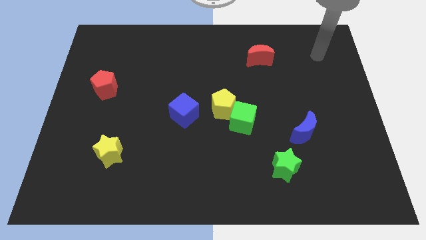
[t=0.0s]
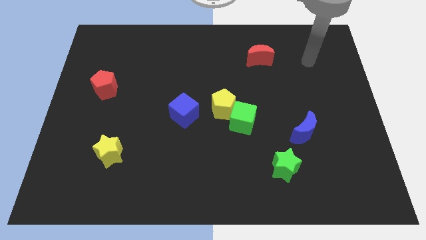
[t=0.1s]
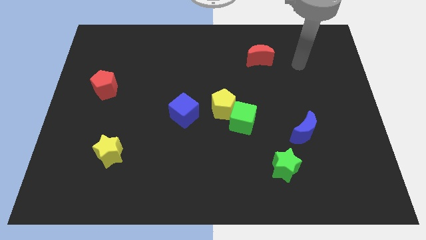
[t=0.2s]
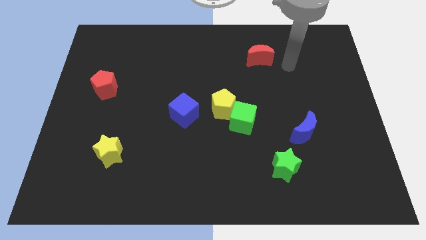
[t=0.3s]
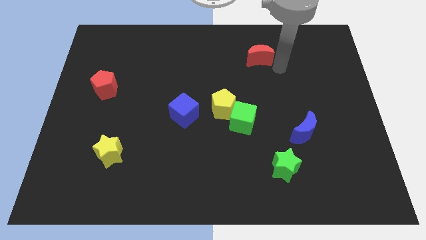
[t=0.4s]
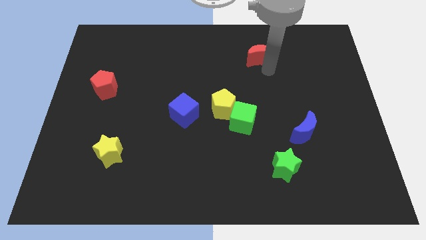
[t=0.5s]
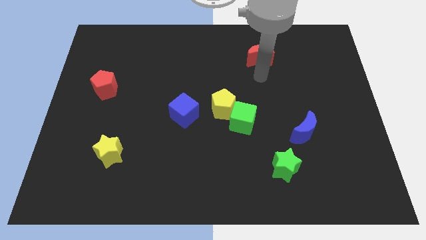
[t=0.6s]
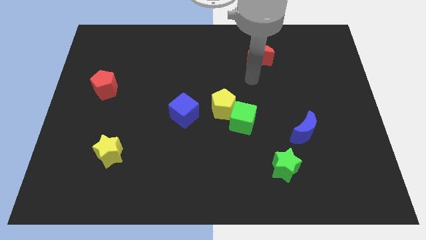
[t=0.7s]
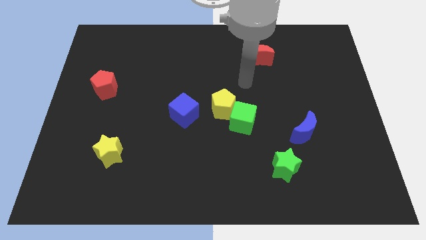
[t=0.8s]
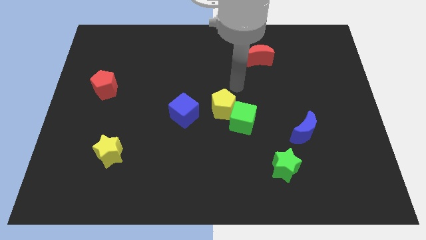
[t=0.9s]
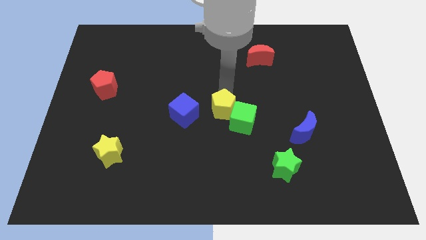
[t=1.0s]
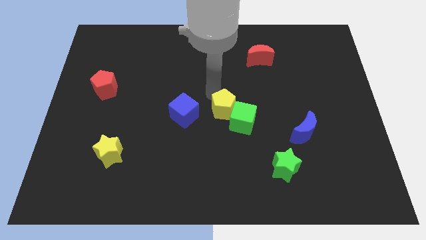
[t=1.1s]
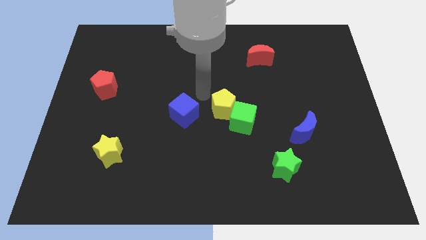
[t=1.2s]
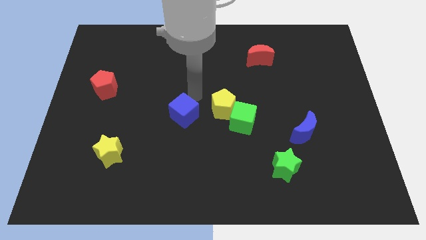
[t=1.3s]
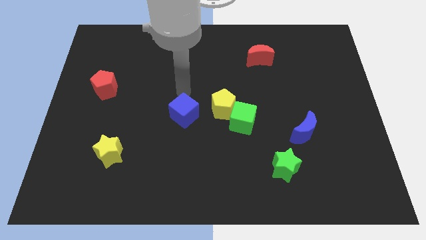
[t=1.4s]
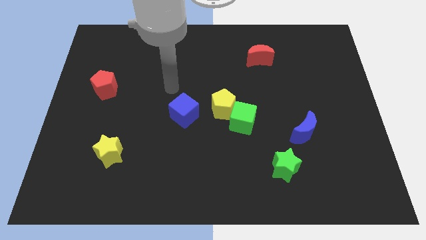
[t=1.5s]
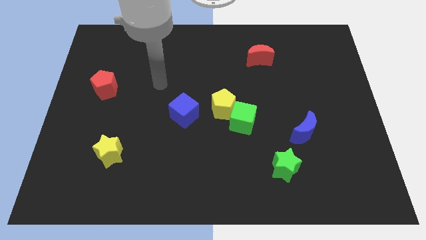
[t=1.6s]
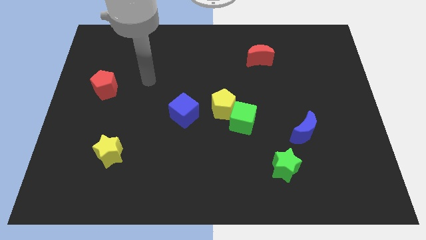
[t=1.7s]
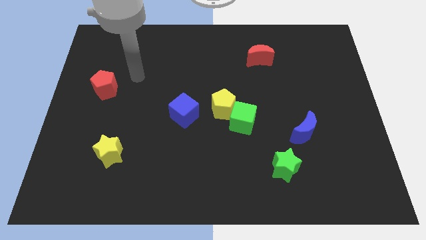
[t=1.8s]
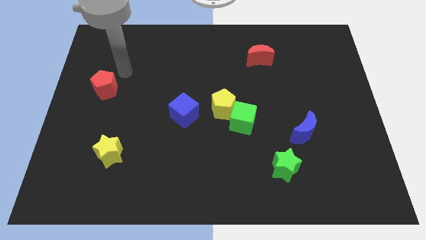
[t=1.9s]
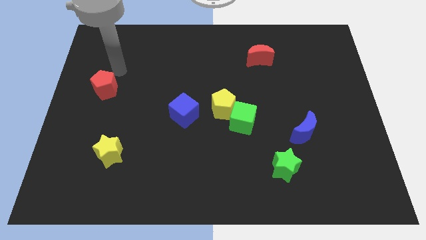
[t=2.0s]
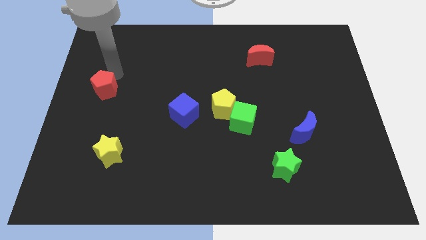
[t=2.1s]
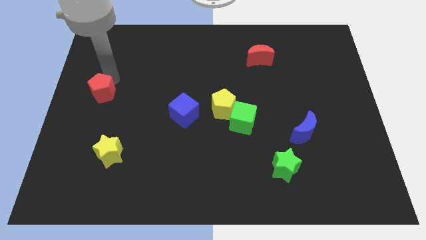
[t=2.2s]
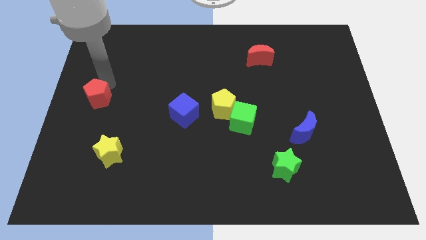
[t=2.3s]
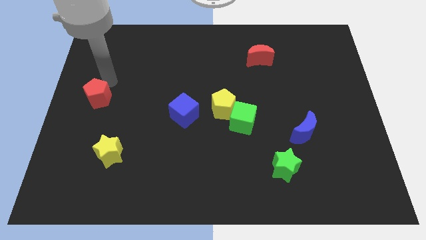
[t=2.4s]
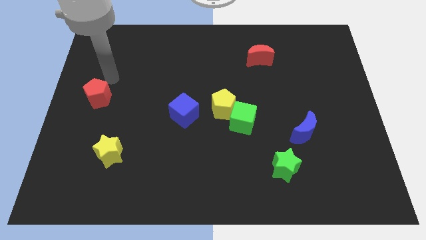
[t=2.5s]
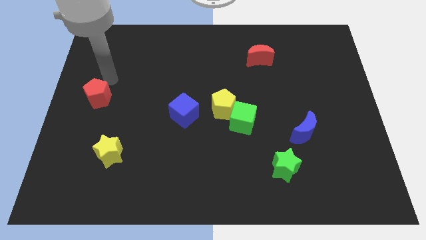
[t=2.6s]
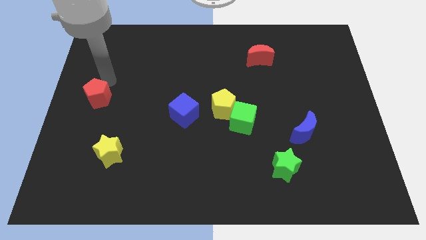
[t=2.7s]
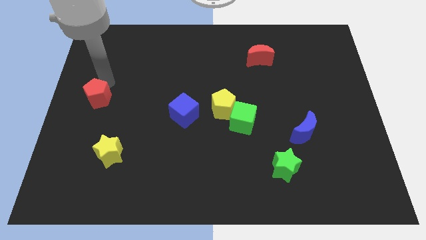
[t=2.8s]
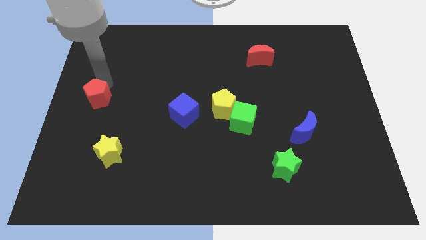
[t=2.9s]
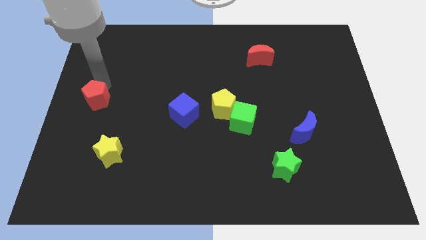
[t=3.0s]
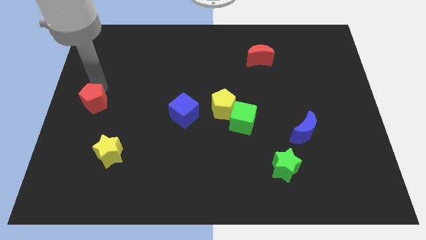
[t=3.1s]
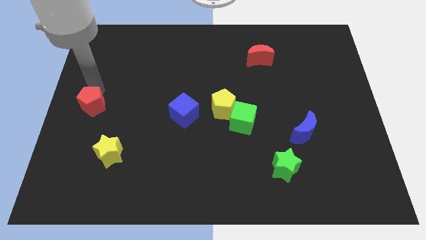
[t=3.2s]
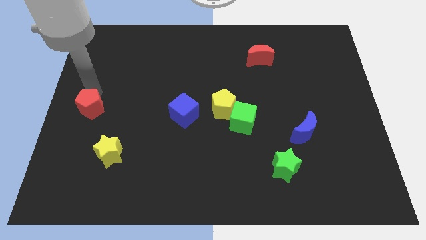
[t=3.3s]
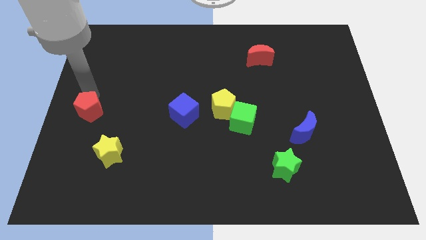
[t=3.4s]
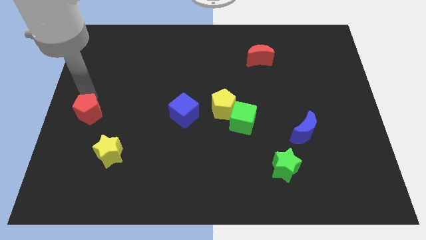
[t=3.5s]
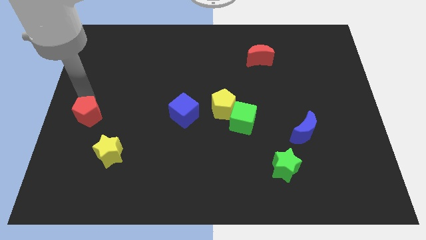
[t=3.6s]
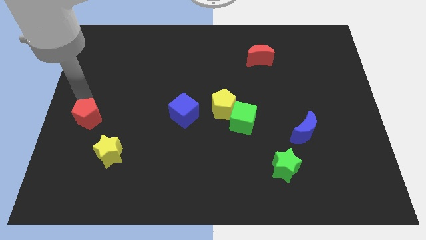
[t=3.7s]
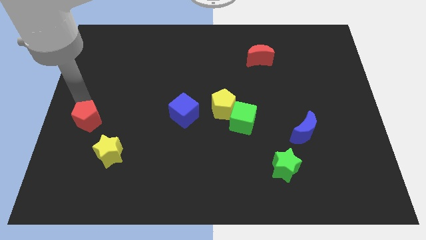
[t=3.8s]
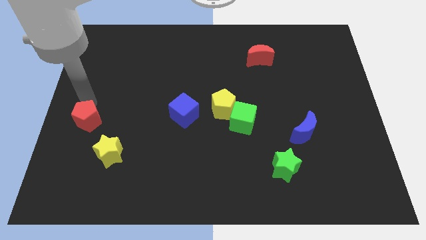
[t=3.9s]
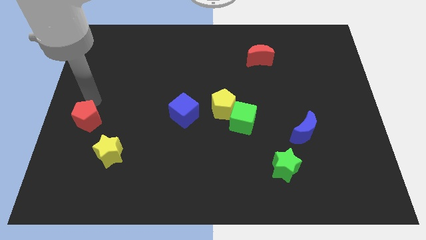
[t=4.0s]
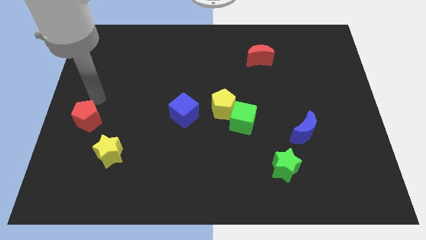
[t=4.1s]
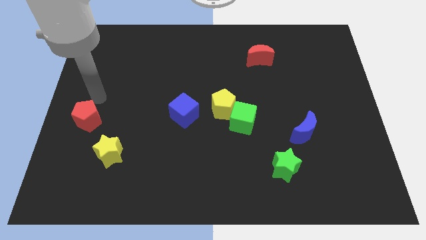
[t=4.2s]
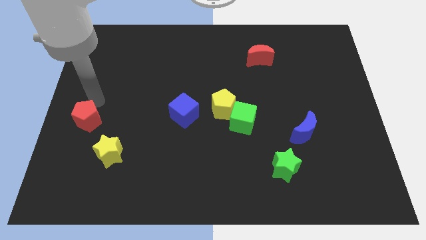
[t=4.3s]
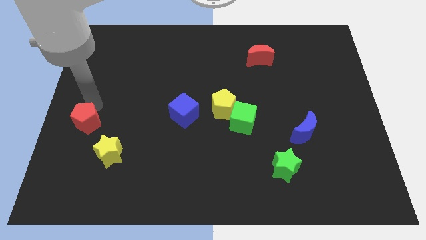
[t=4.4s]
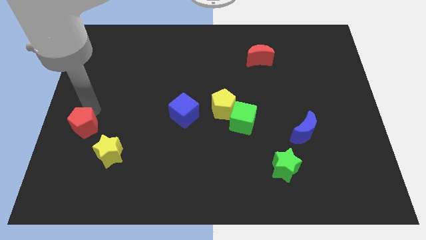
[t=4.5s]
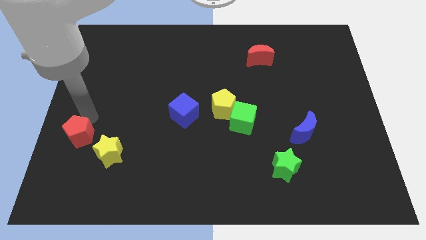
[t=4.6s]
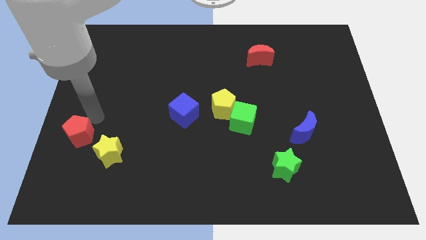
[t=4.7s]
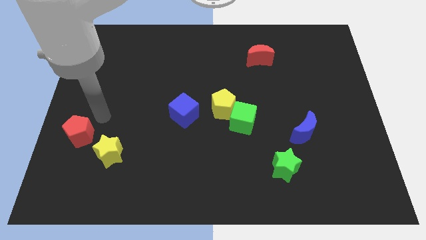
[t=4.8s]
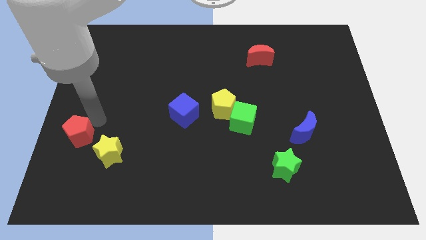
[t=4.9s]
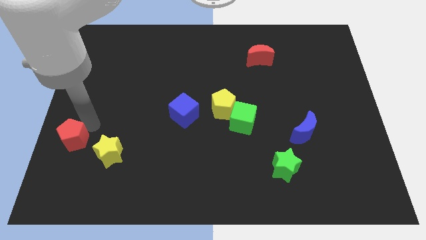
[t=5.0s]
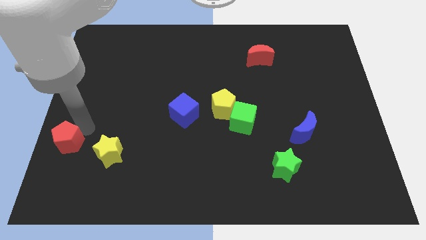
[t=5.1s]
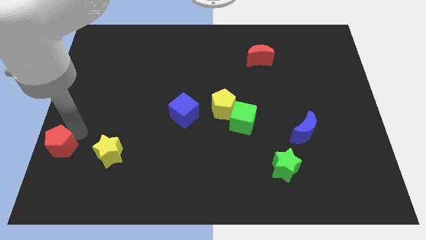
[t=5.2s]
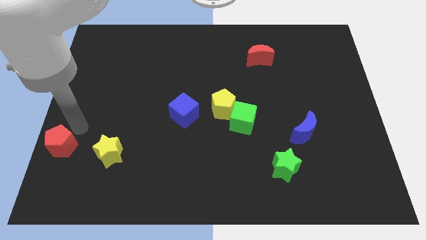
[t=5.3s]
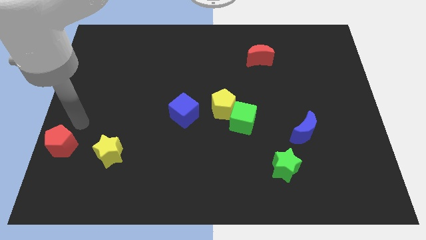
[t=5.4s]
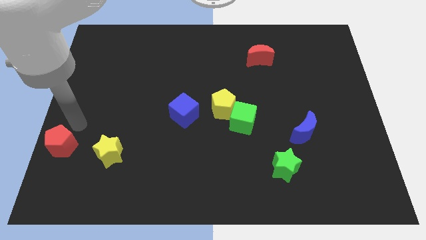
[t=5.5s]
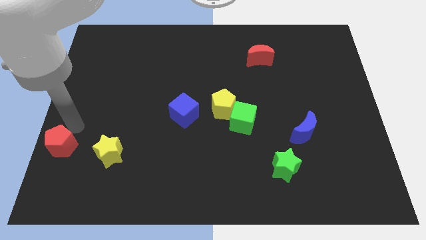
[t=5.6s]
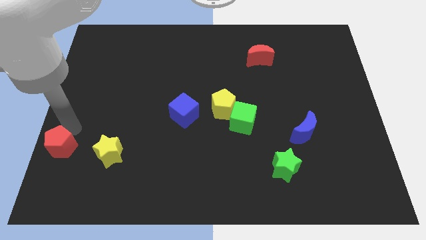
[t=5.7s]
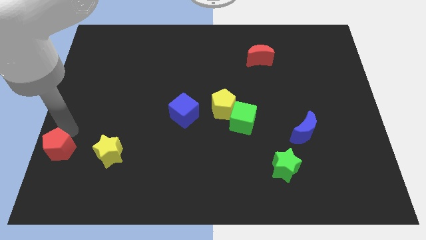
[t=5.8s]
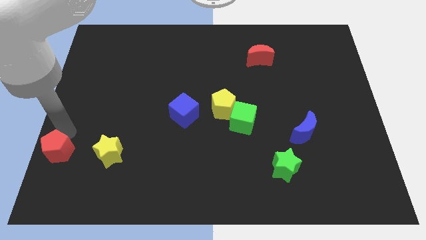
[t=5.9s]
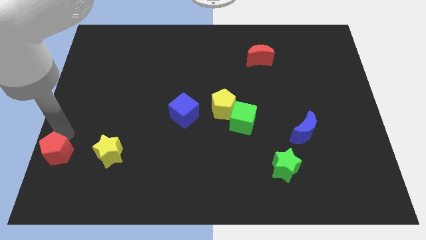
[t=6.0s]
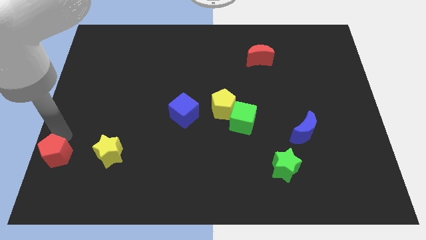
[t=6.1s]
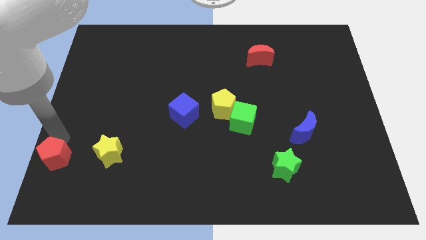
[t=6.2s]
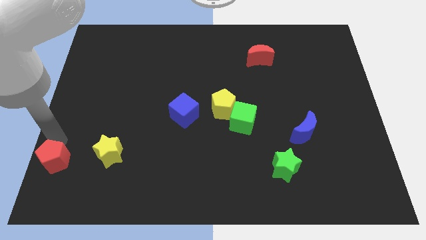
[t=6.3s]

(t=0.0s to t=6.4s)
push the red pentagon to the lower left corner

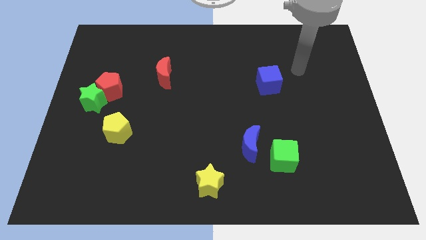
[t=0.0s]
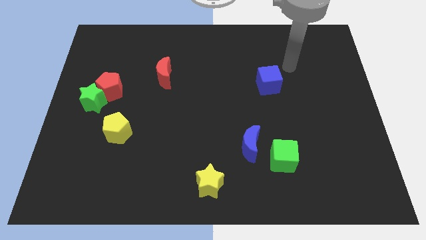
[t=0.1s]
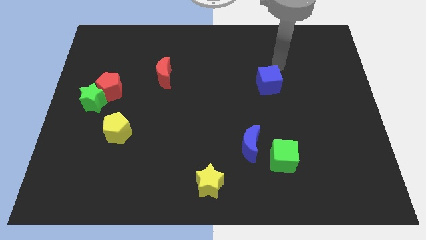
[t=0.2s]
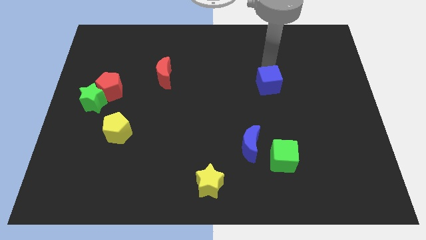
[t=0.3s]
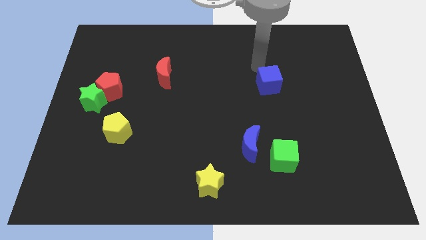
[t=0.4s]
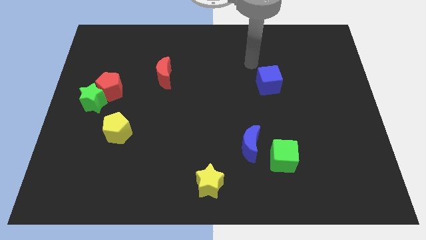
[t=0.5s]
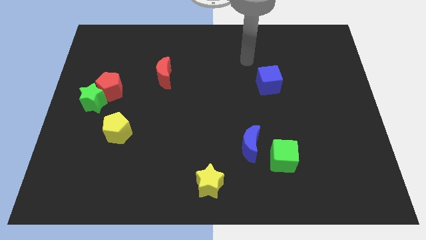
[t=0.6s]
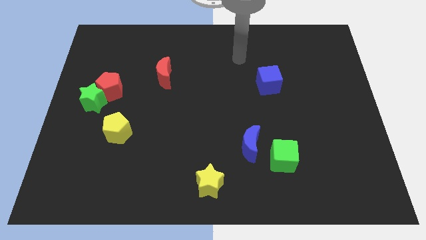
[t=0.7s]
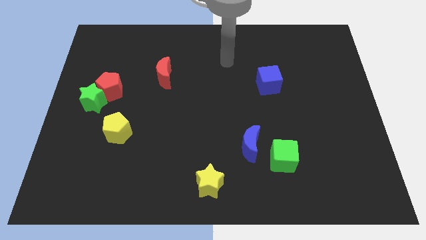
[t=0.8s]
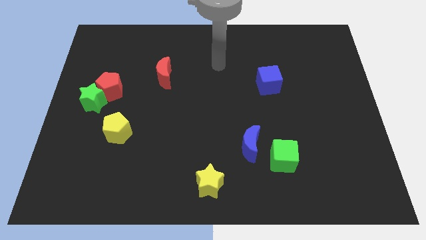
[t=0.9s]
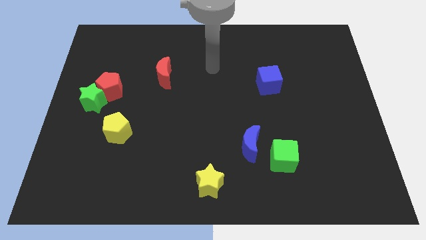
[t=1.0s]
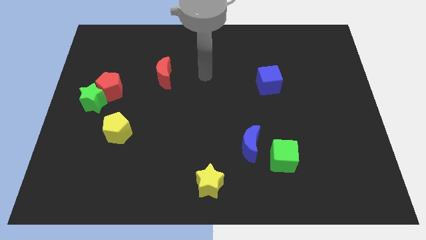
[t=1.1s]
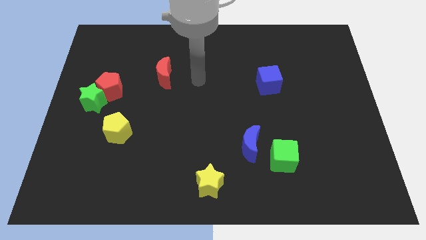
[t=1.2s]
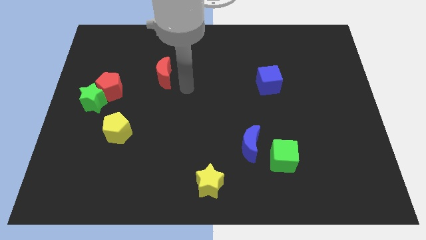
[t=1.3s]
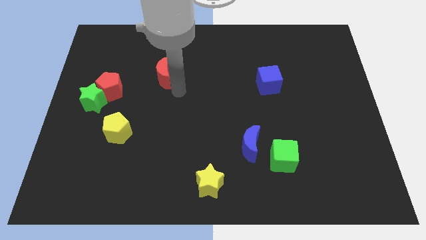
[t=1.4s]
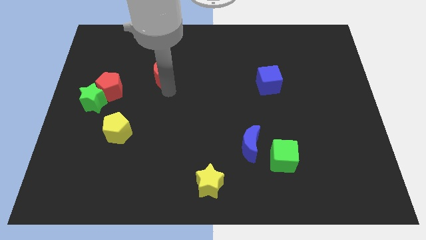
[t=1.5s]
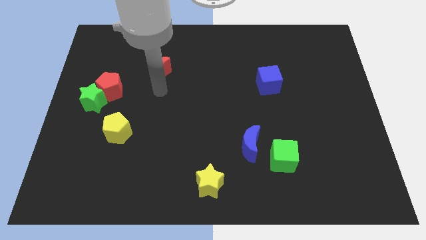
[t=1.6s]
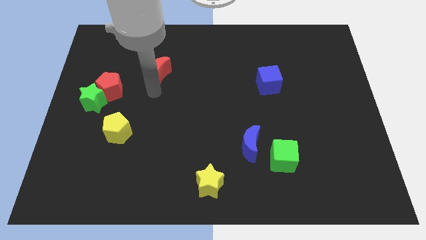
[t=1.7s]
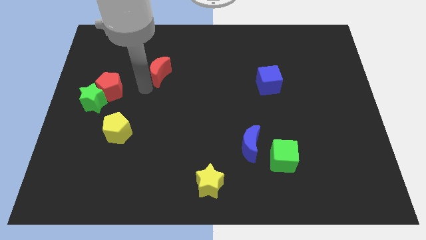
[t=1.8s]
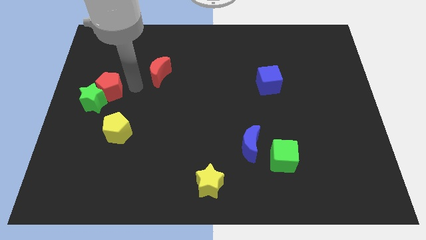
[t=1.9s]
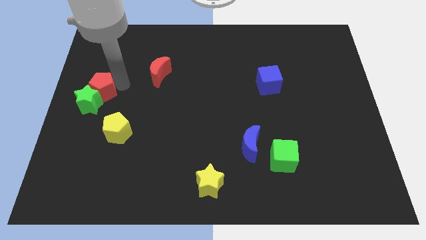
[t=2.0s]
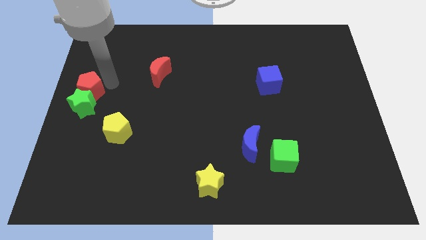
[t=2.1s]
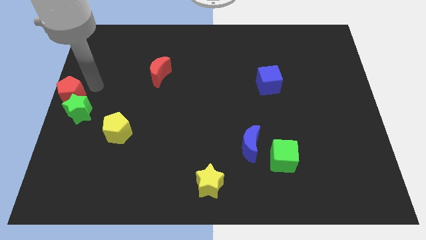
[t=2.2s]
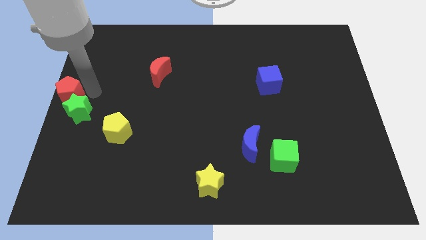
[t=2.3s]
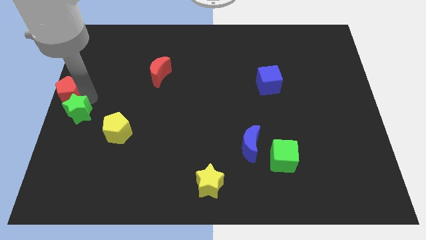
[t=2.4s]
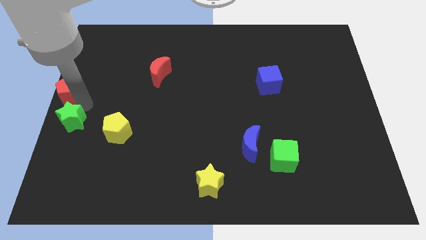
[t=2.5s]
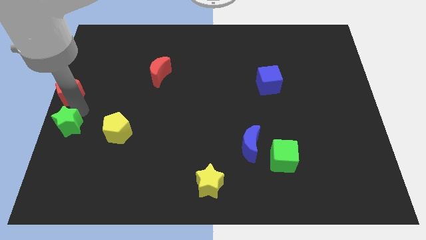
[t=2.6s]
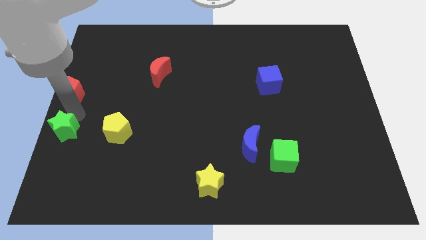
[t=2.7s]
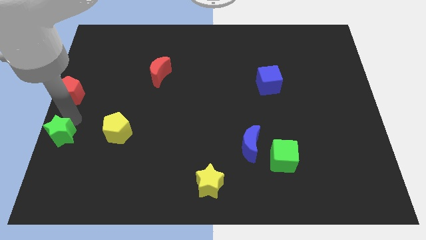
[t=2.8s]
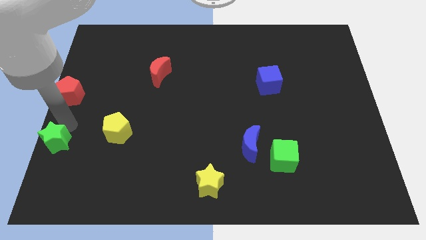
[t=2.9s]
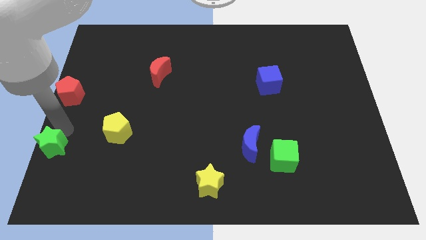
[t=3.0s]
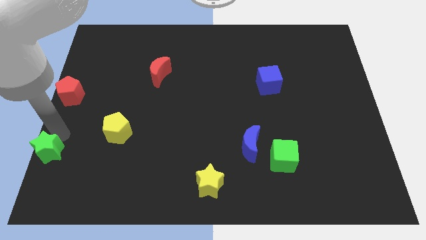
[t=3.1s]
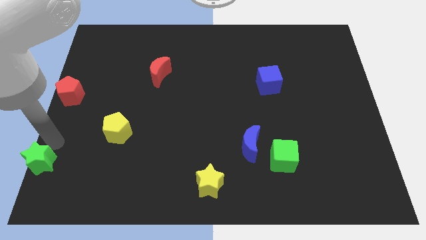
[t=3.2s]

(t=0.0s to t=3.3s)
push the green star to the lower left corner
